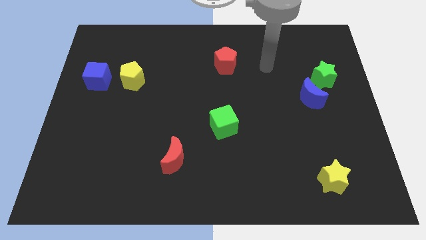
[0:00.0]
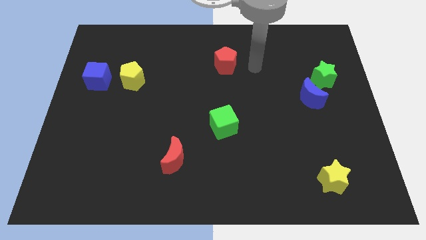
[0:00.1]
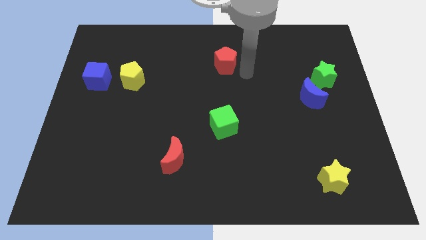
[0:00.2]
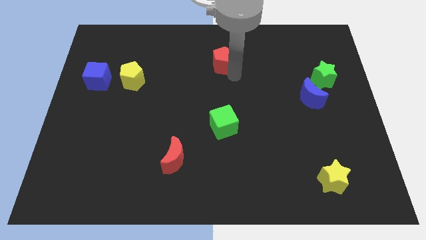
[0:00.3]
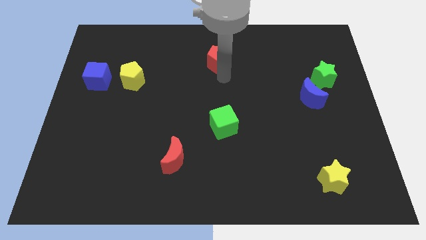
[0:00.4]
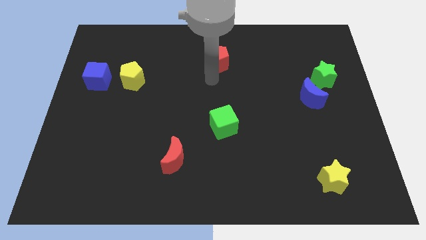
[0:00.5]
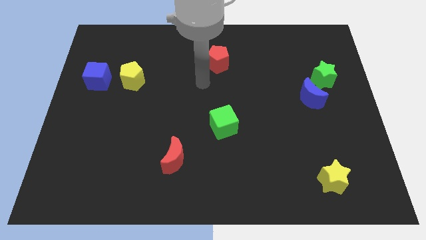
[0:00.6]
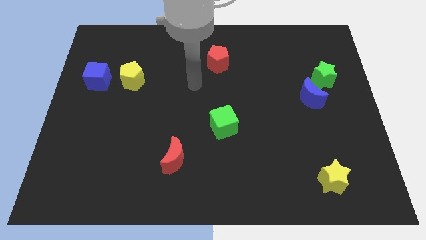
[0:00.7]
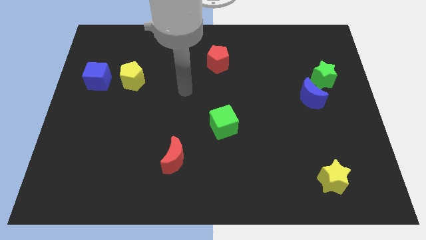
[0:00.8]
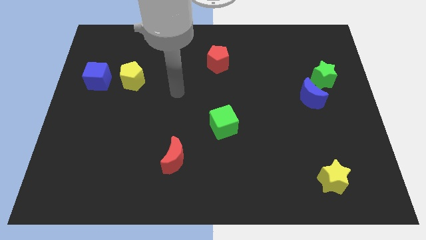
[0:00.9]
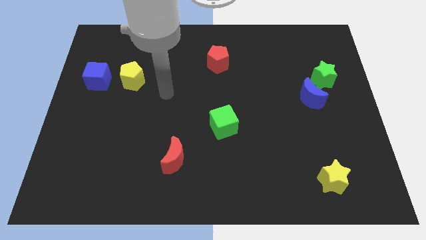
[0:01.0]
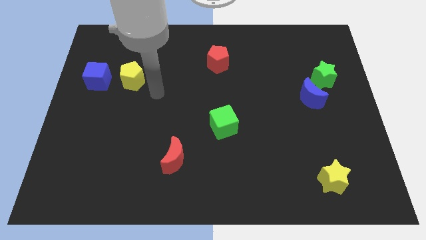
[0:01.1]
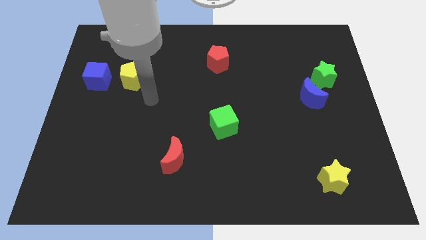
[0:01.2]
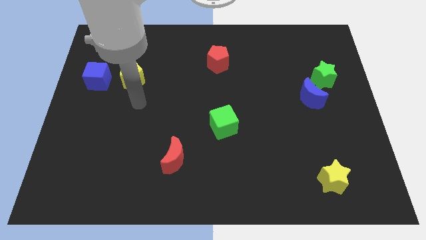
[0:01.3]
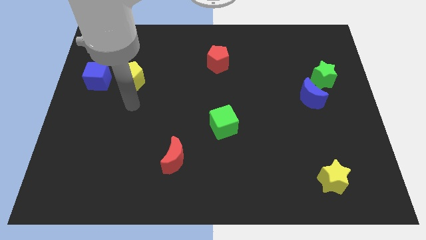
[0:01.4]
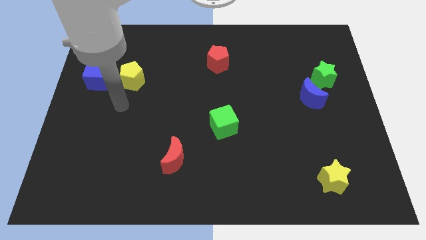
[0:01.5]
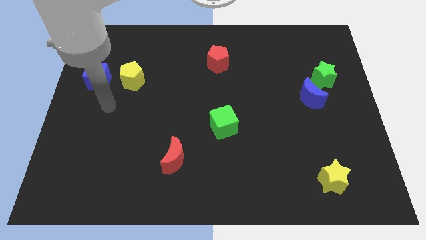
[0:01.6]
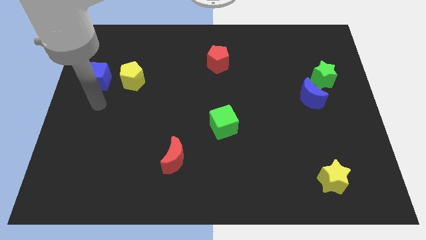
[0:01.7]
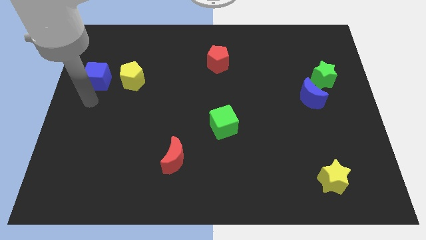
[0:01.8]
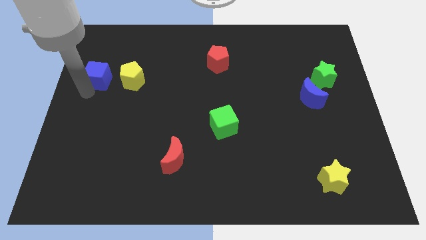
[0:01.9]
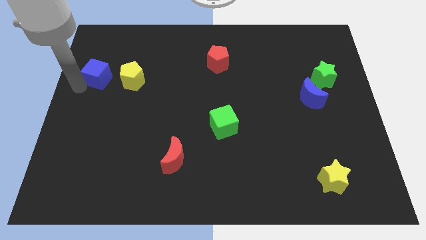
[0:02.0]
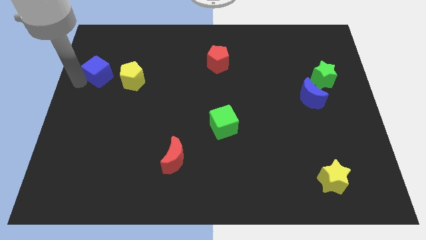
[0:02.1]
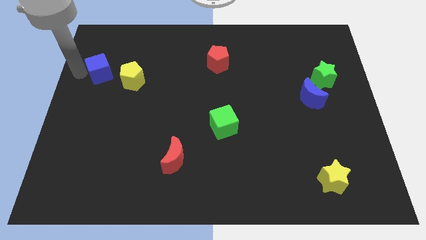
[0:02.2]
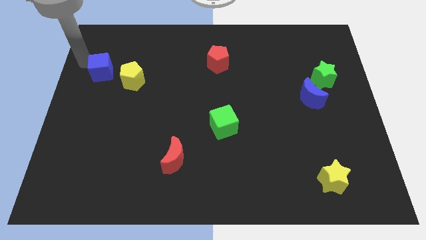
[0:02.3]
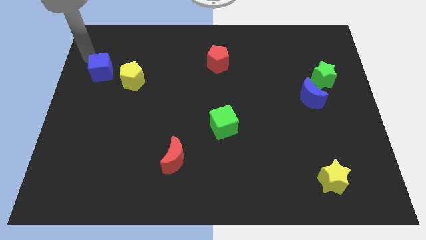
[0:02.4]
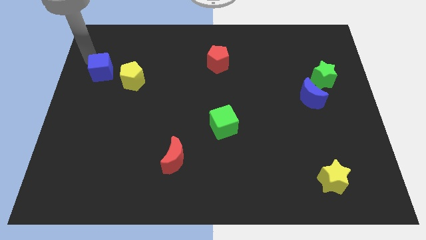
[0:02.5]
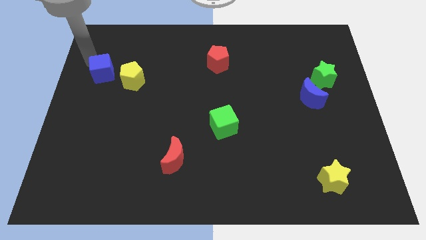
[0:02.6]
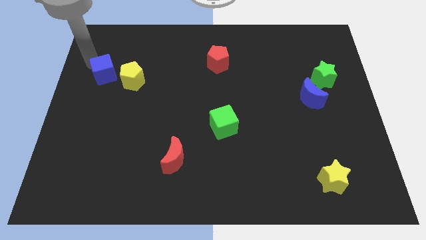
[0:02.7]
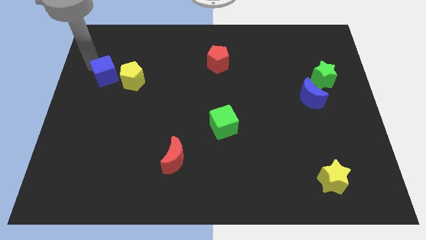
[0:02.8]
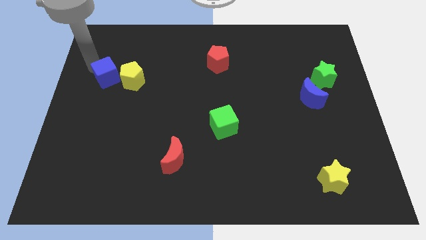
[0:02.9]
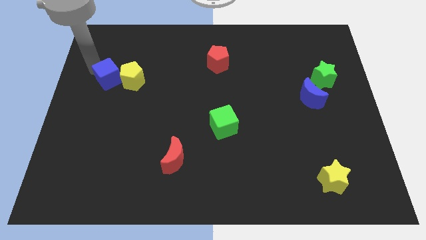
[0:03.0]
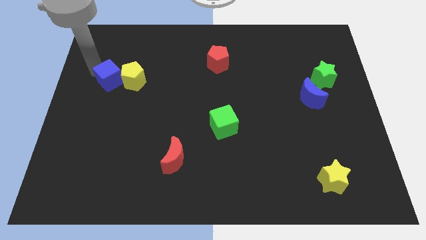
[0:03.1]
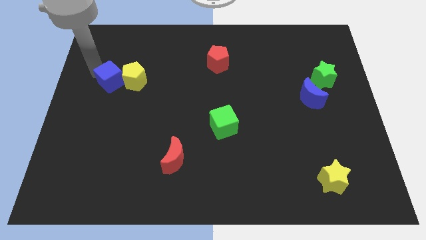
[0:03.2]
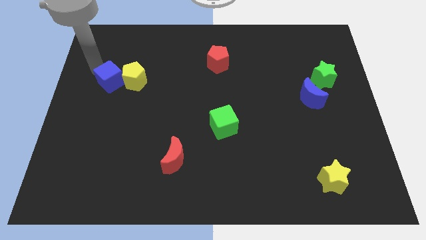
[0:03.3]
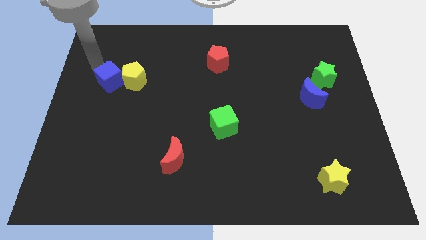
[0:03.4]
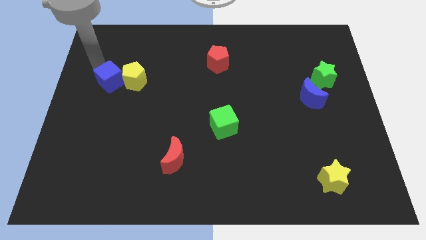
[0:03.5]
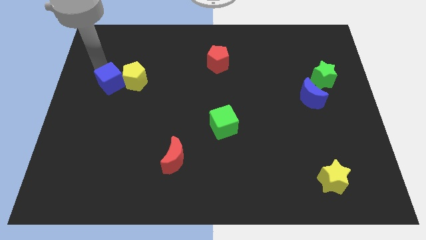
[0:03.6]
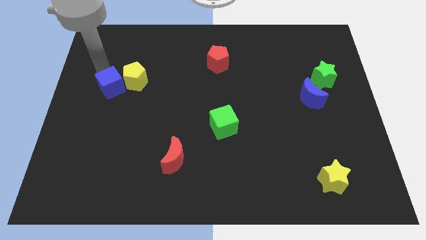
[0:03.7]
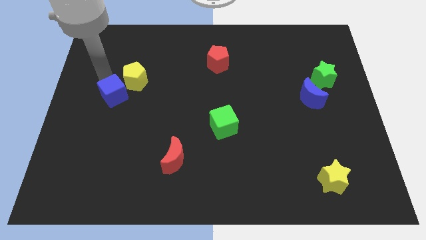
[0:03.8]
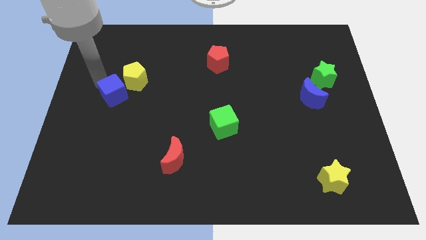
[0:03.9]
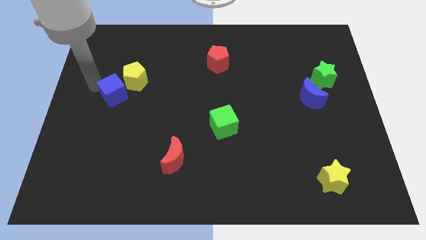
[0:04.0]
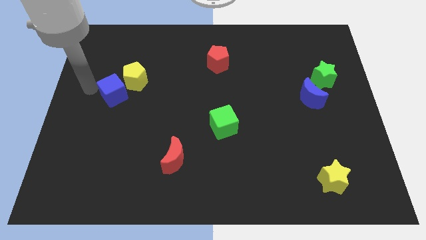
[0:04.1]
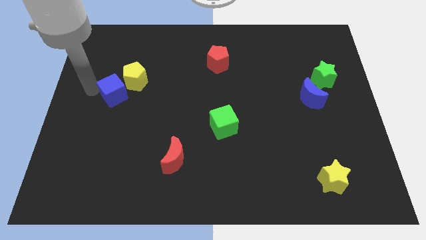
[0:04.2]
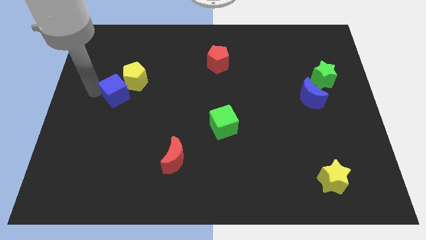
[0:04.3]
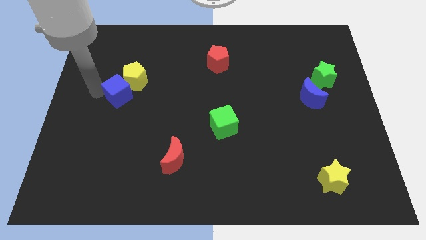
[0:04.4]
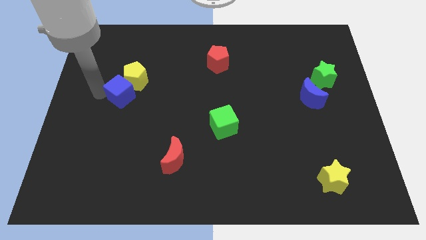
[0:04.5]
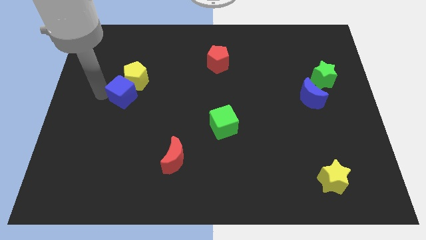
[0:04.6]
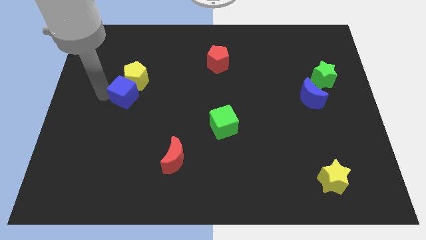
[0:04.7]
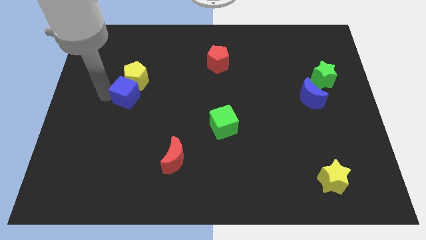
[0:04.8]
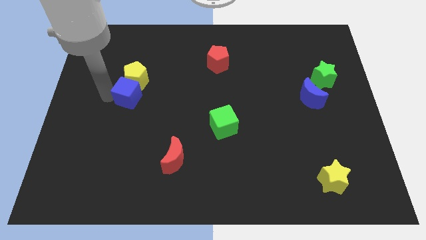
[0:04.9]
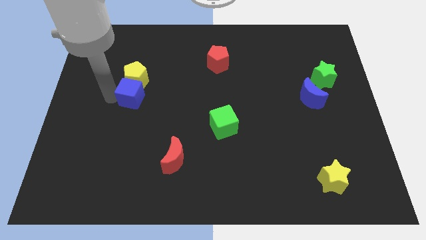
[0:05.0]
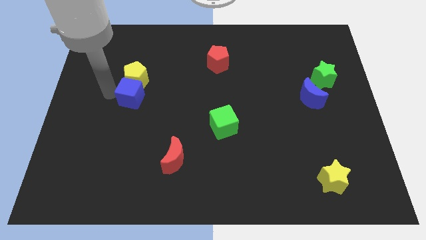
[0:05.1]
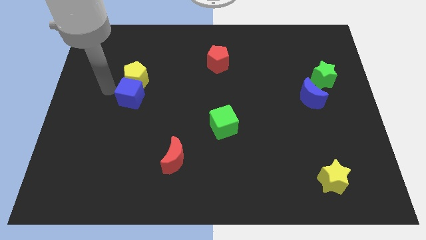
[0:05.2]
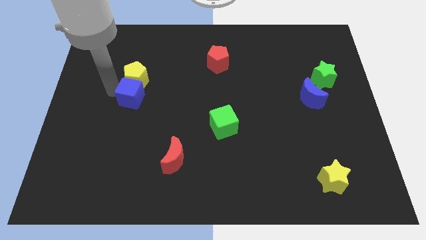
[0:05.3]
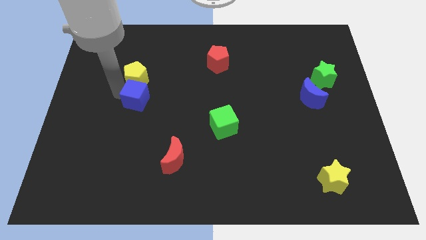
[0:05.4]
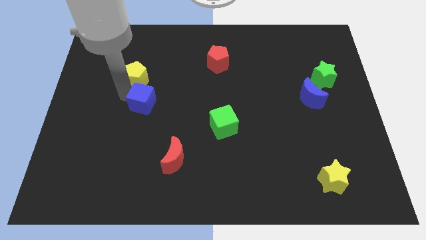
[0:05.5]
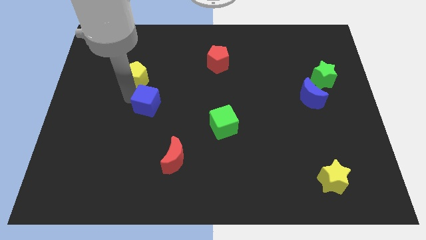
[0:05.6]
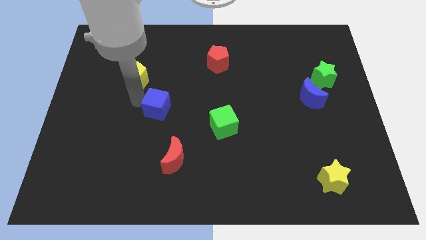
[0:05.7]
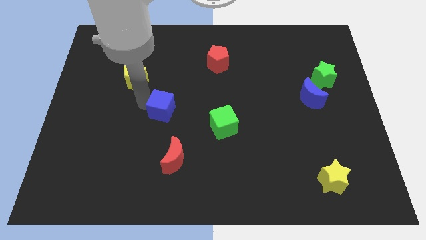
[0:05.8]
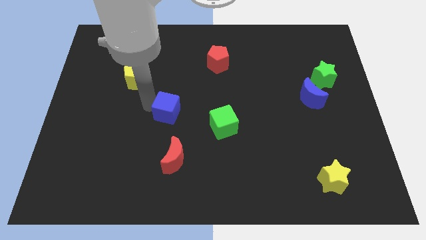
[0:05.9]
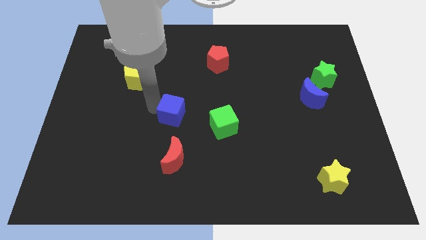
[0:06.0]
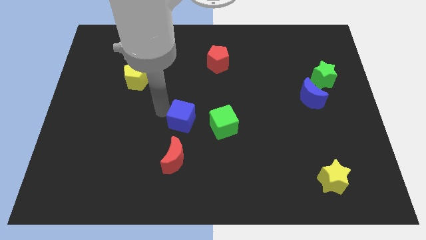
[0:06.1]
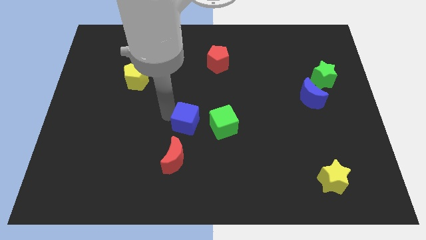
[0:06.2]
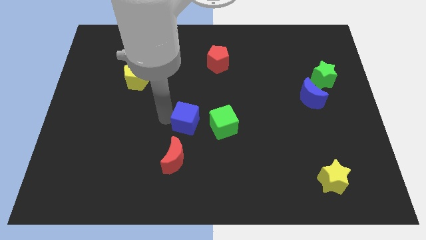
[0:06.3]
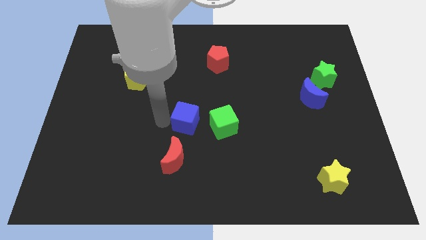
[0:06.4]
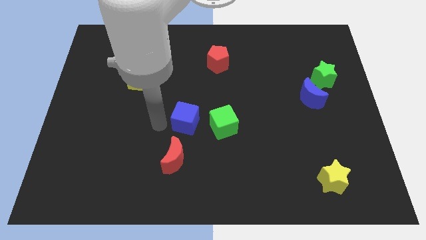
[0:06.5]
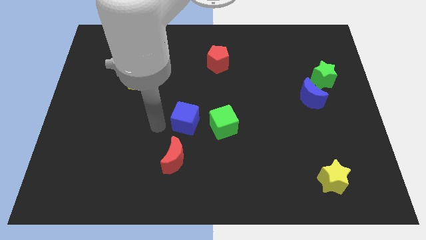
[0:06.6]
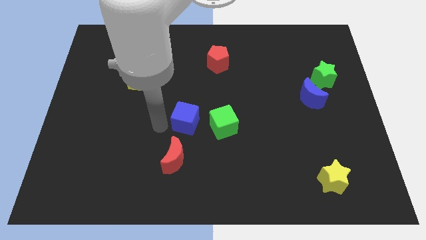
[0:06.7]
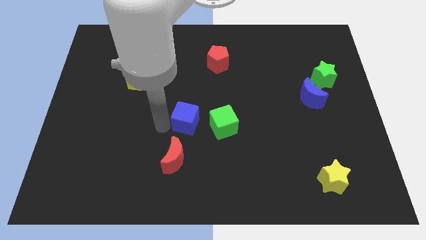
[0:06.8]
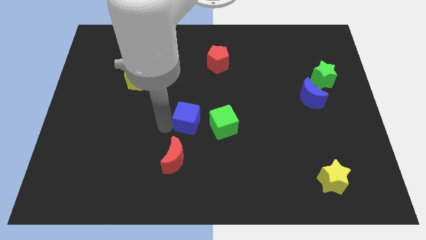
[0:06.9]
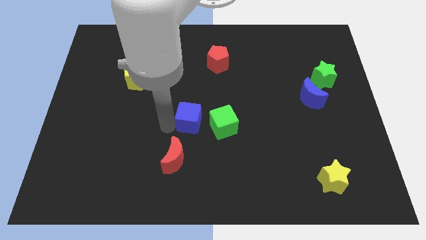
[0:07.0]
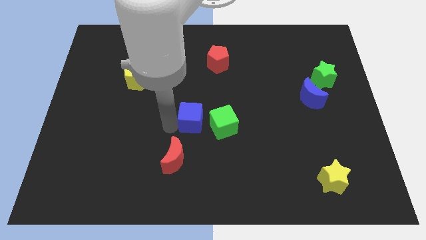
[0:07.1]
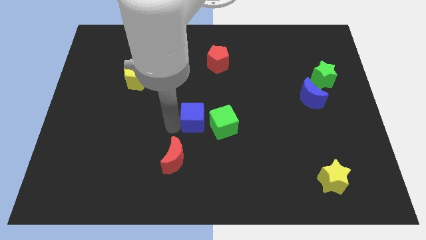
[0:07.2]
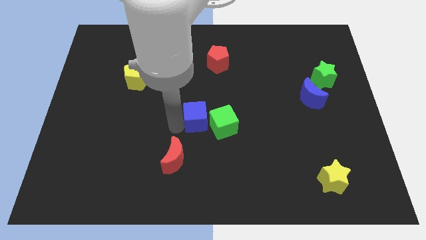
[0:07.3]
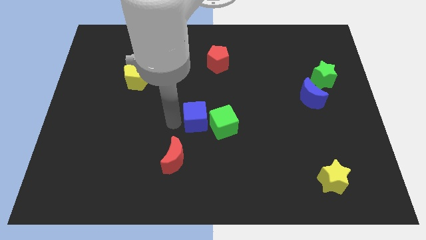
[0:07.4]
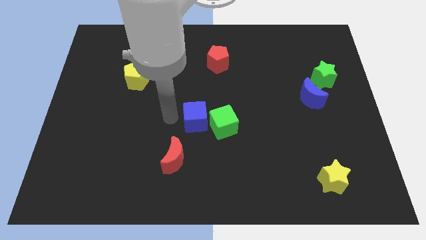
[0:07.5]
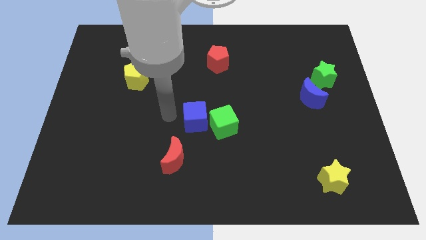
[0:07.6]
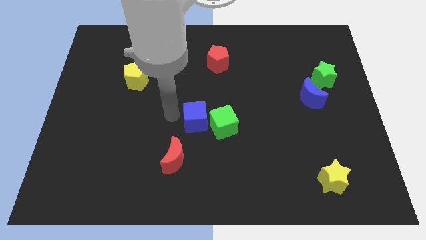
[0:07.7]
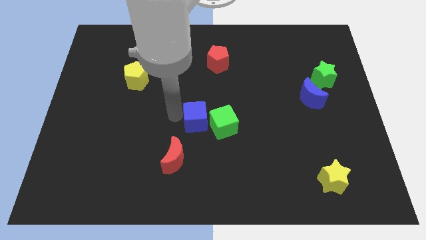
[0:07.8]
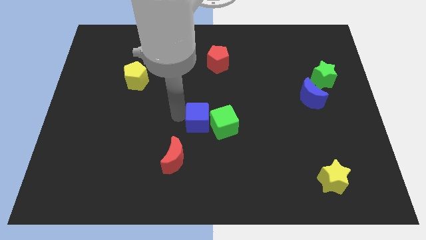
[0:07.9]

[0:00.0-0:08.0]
push the blue cube next to the green cube
